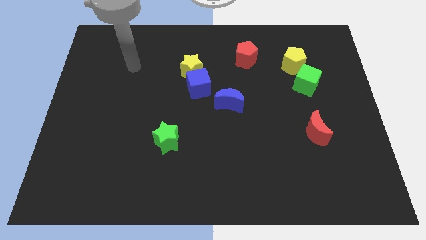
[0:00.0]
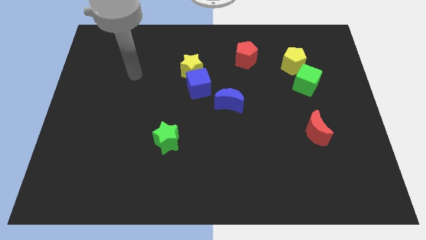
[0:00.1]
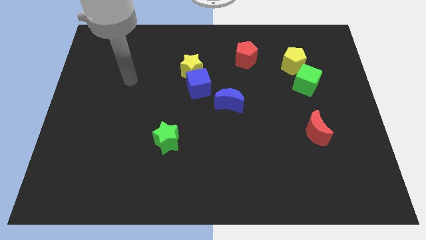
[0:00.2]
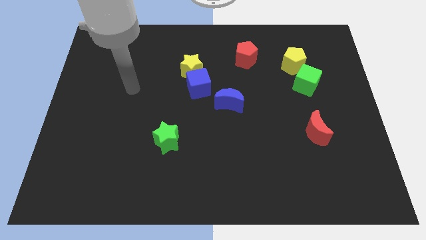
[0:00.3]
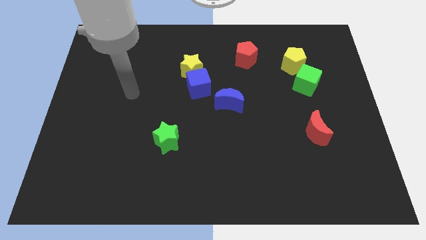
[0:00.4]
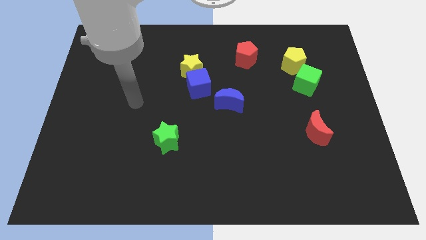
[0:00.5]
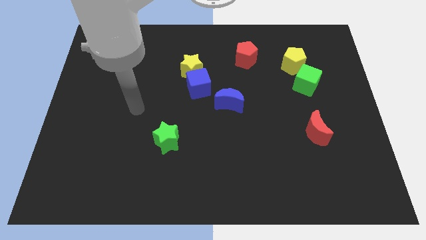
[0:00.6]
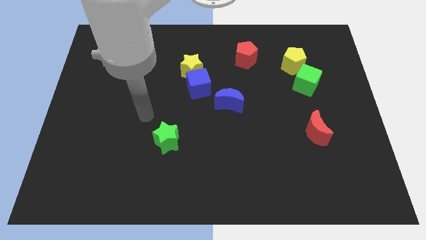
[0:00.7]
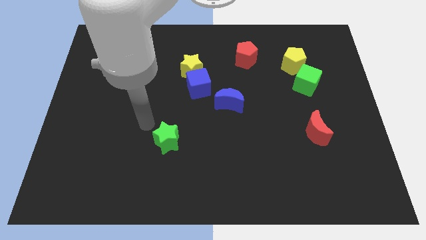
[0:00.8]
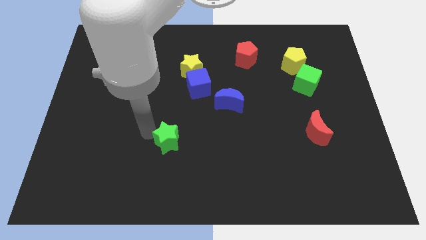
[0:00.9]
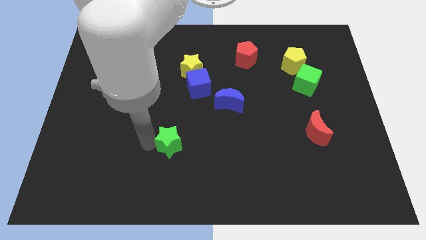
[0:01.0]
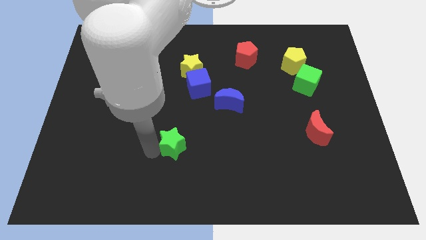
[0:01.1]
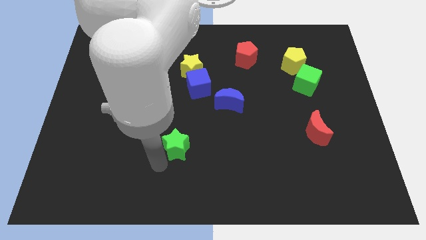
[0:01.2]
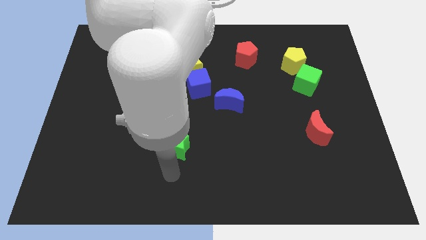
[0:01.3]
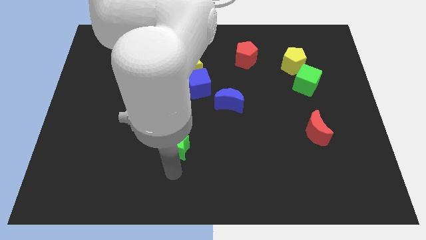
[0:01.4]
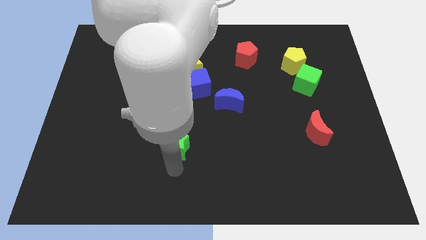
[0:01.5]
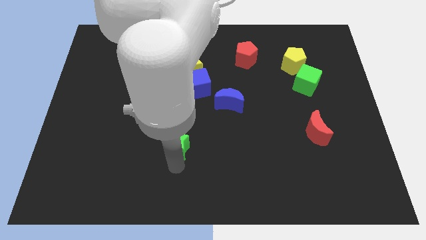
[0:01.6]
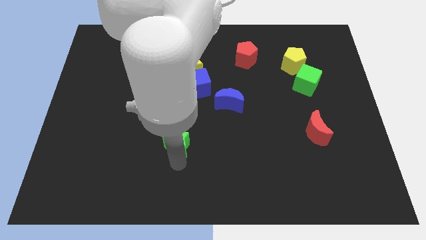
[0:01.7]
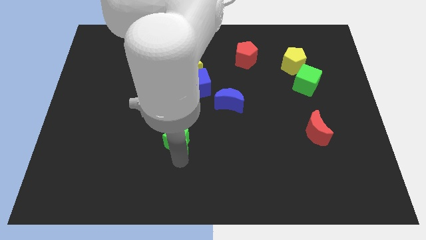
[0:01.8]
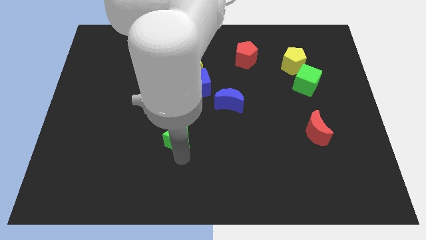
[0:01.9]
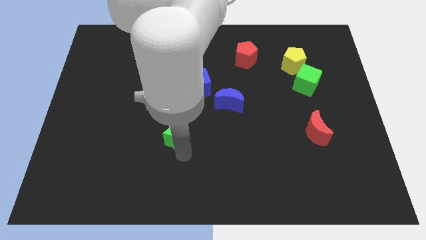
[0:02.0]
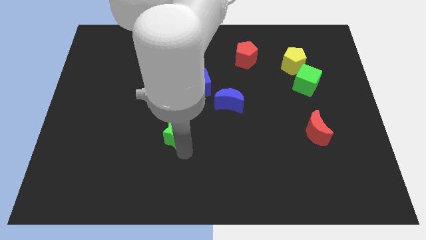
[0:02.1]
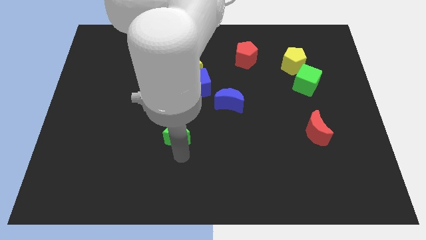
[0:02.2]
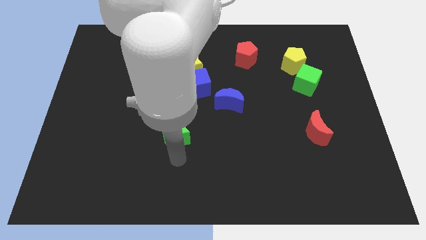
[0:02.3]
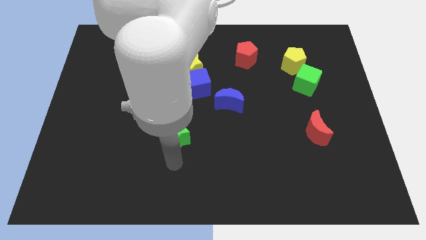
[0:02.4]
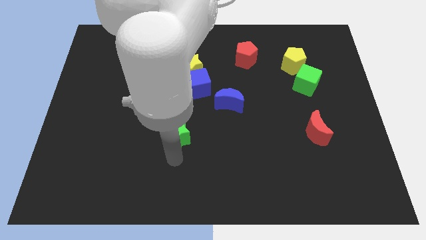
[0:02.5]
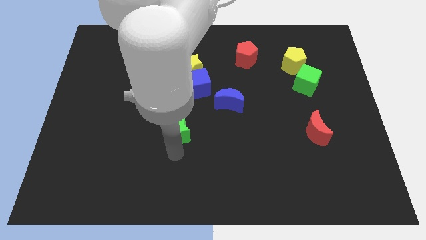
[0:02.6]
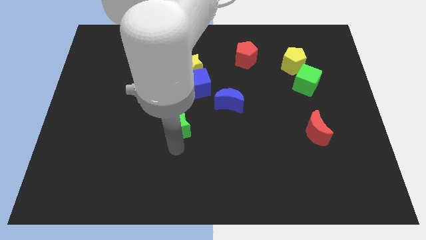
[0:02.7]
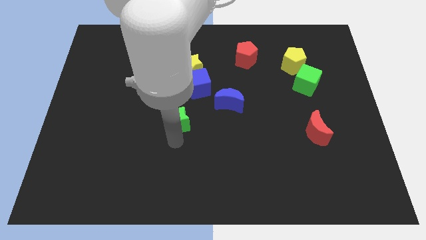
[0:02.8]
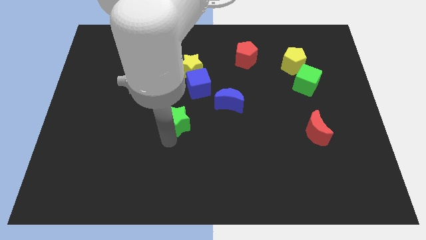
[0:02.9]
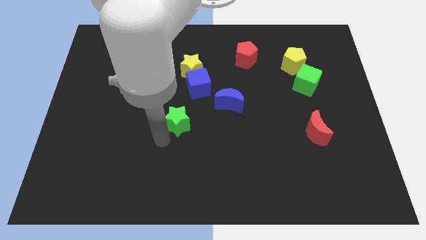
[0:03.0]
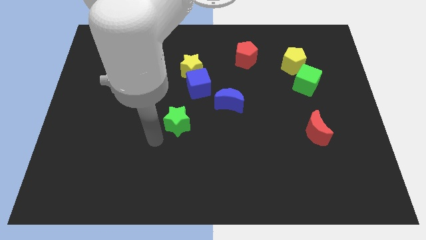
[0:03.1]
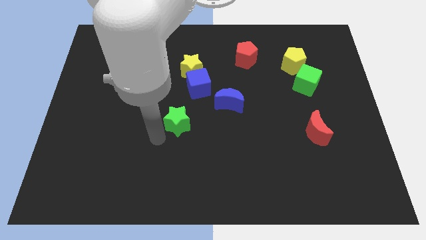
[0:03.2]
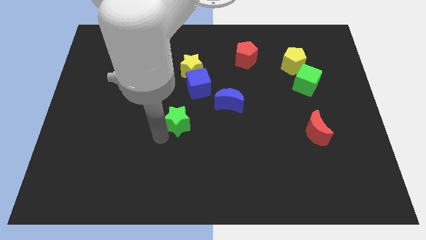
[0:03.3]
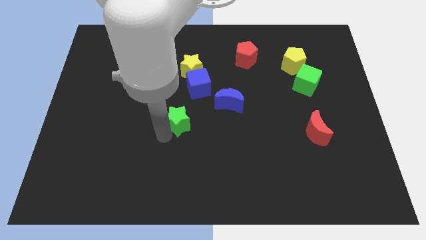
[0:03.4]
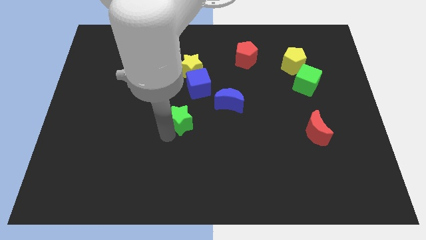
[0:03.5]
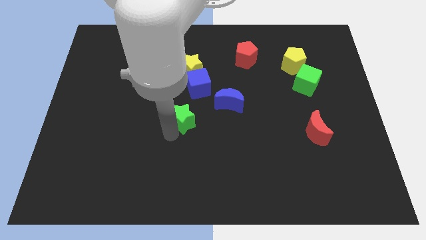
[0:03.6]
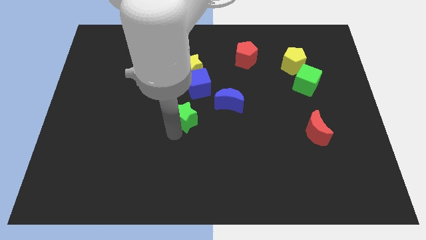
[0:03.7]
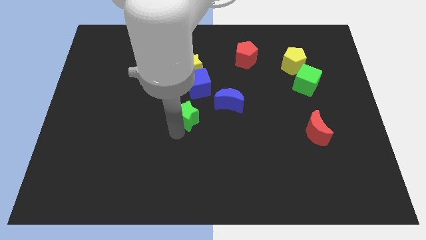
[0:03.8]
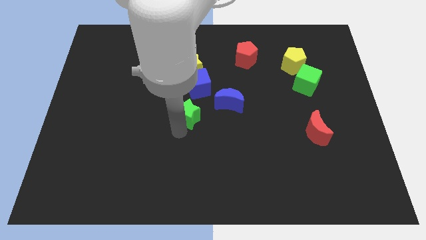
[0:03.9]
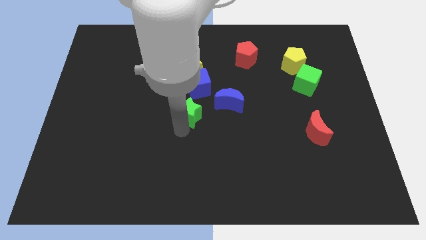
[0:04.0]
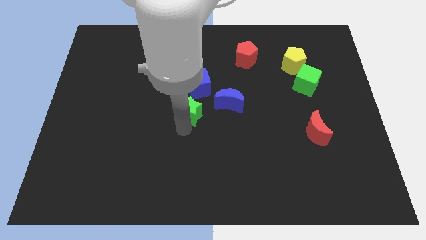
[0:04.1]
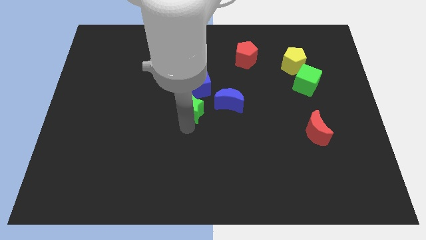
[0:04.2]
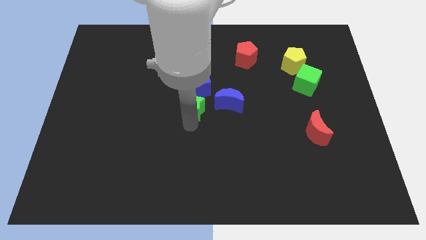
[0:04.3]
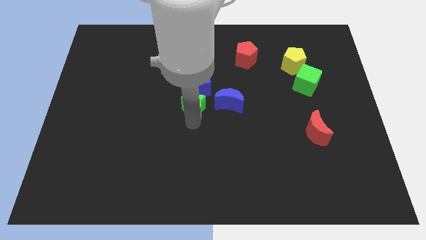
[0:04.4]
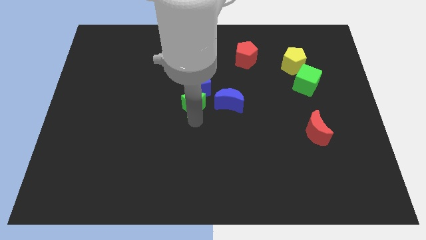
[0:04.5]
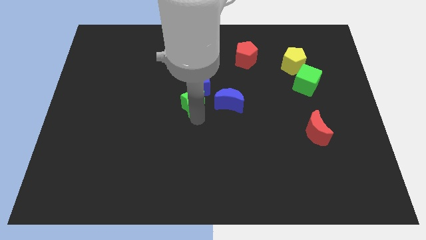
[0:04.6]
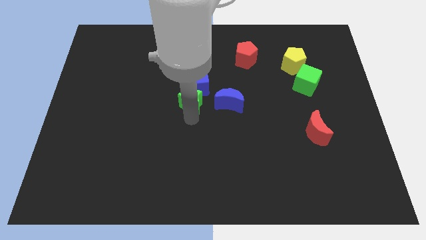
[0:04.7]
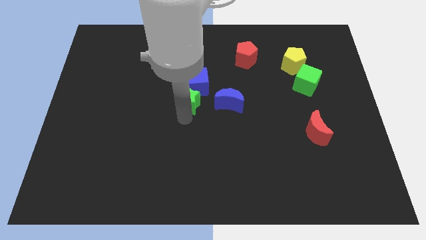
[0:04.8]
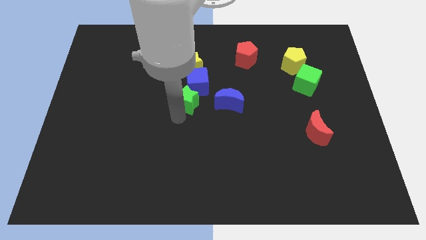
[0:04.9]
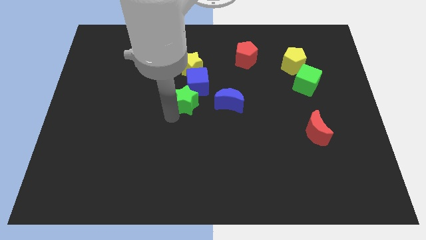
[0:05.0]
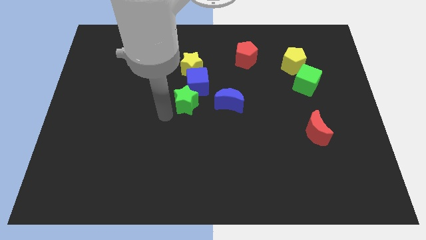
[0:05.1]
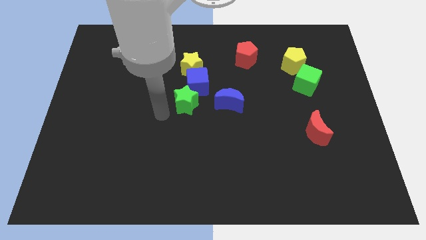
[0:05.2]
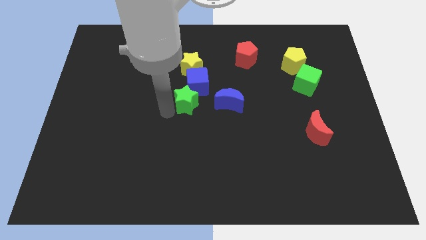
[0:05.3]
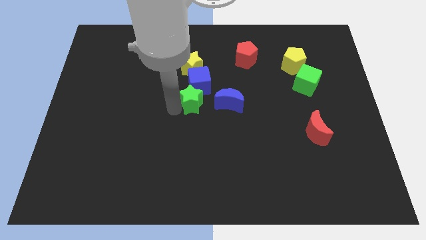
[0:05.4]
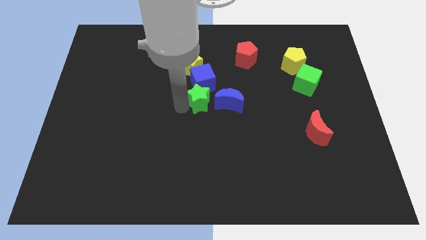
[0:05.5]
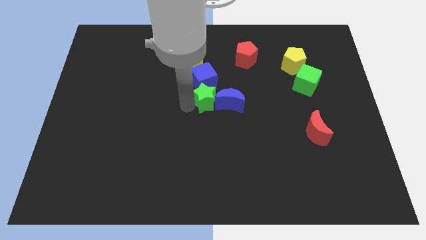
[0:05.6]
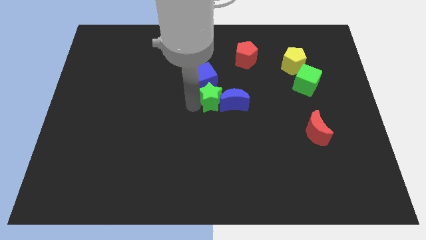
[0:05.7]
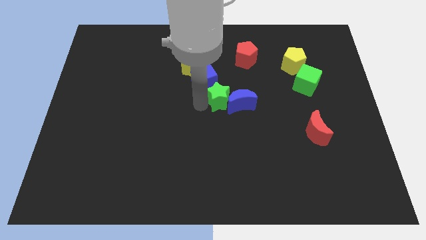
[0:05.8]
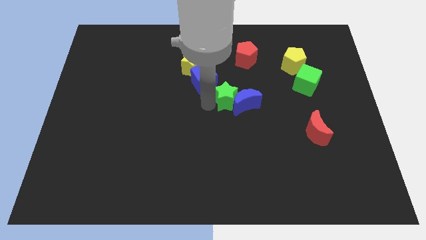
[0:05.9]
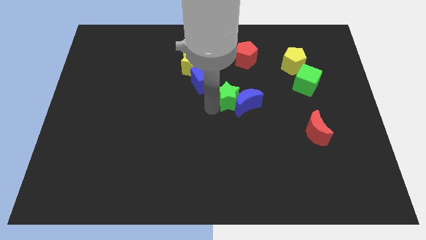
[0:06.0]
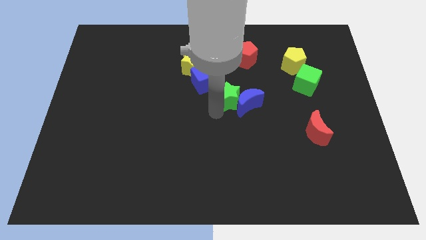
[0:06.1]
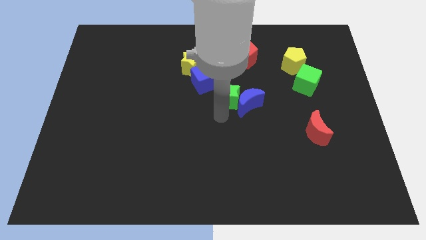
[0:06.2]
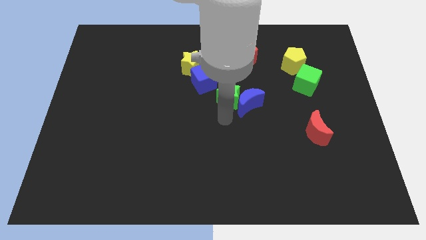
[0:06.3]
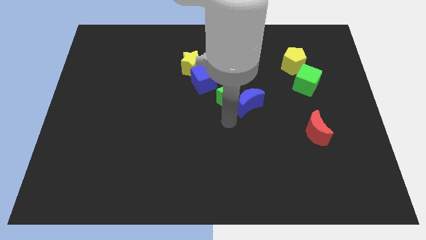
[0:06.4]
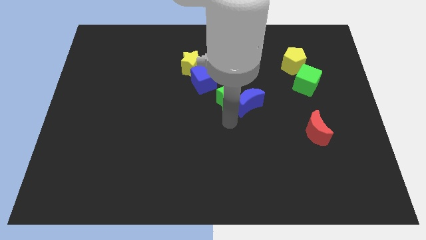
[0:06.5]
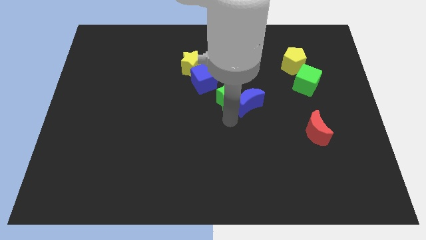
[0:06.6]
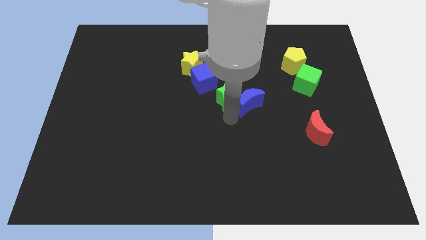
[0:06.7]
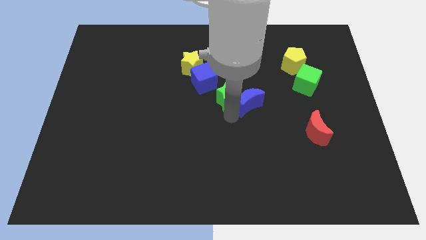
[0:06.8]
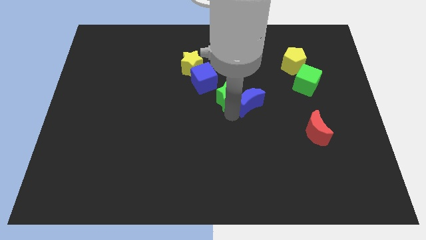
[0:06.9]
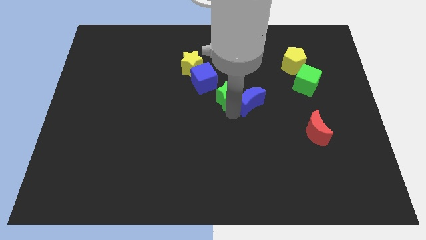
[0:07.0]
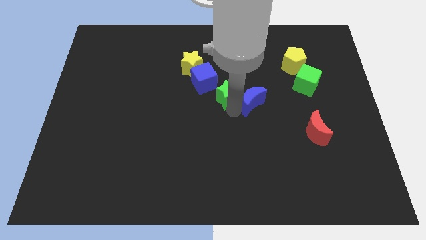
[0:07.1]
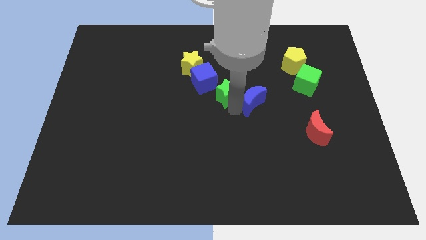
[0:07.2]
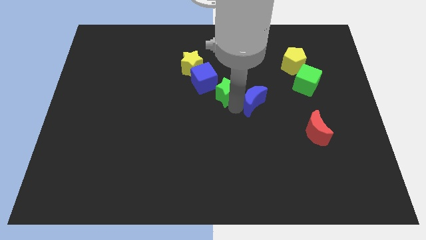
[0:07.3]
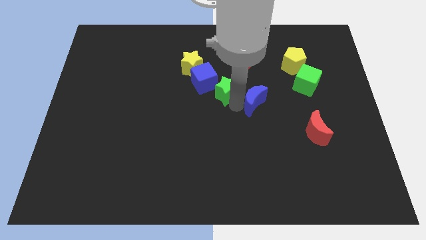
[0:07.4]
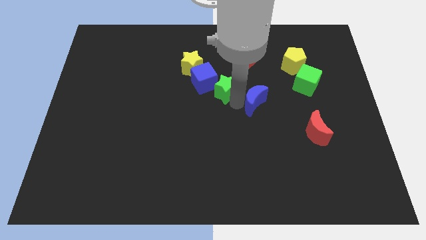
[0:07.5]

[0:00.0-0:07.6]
slide the green star up and to the right diagonally
